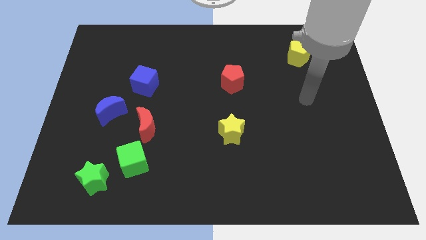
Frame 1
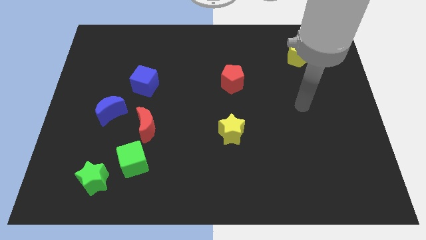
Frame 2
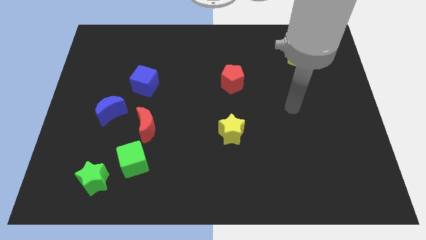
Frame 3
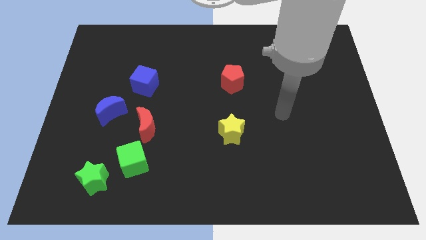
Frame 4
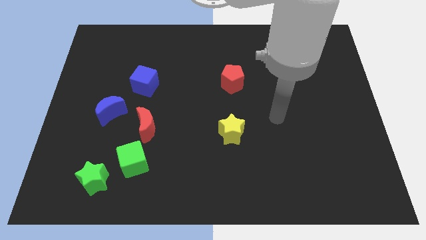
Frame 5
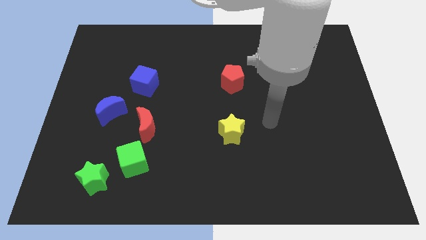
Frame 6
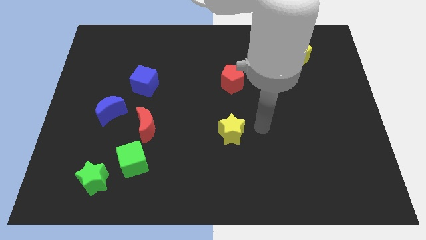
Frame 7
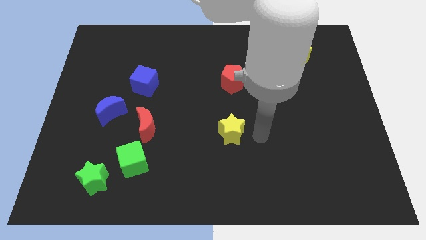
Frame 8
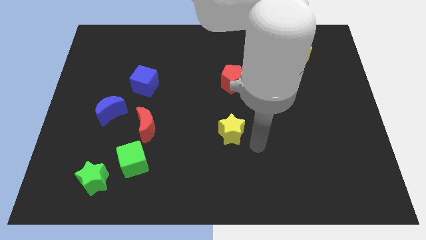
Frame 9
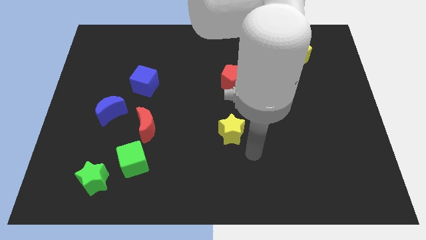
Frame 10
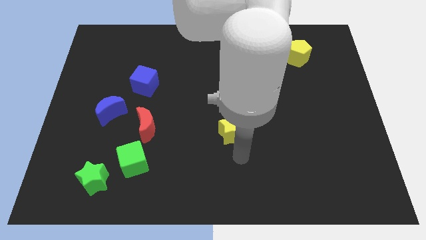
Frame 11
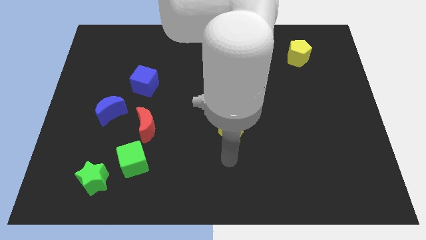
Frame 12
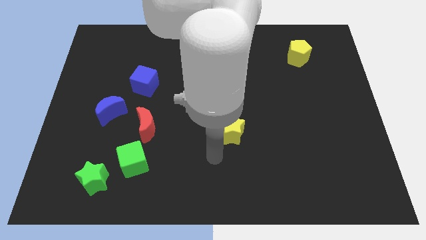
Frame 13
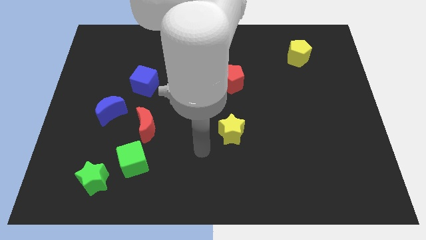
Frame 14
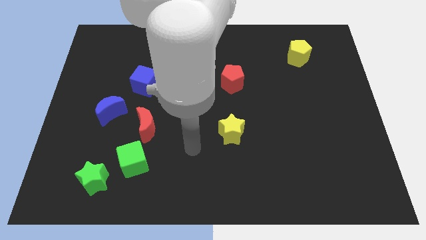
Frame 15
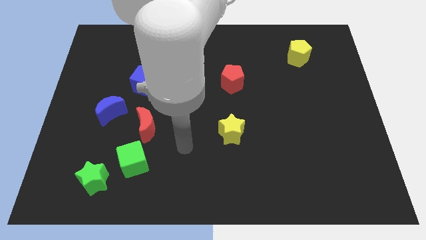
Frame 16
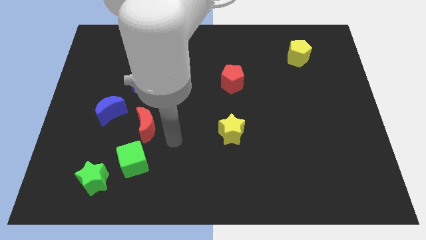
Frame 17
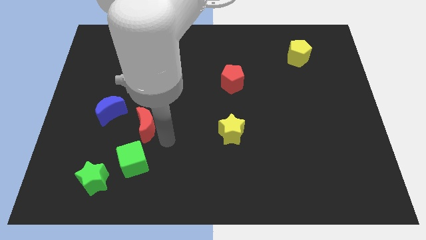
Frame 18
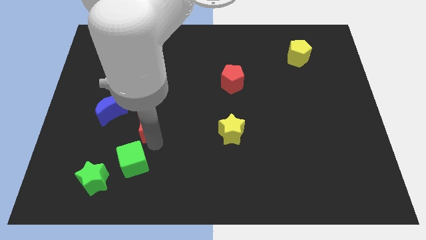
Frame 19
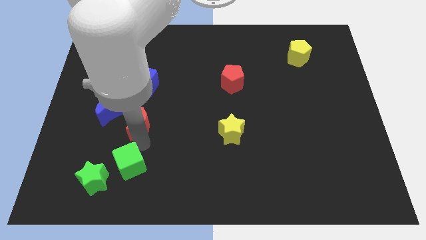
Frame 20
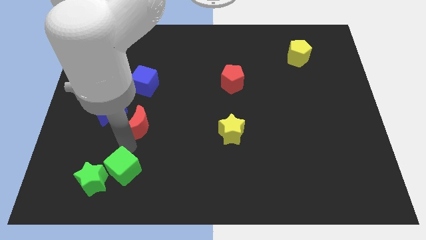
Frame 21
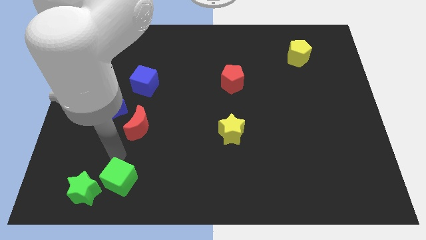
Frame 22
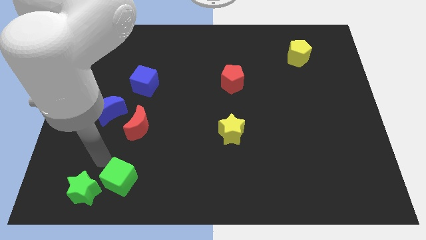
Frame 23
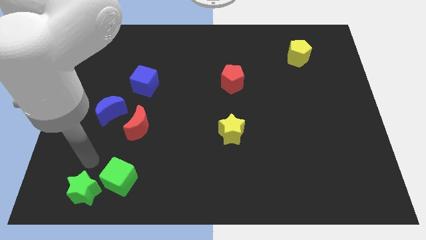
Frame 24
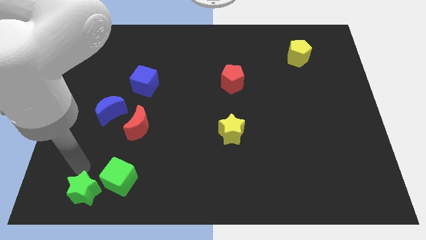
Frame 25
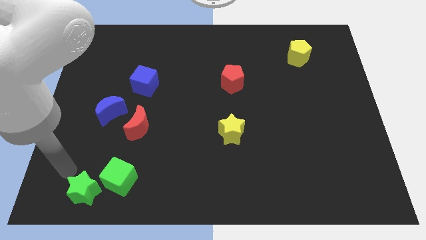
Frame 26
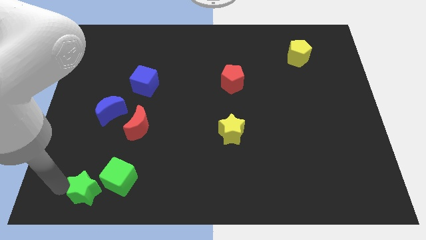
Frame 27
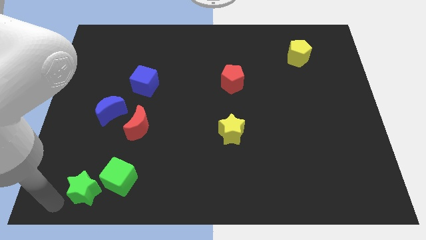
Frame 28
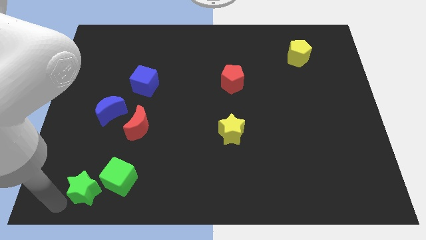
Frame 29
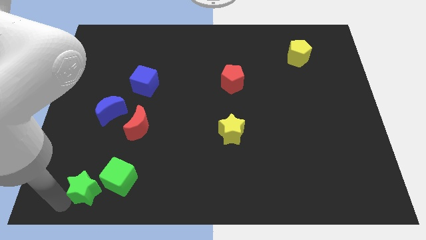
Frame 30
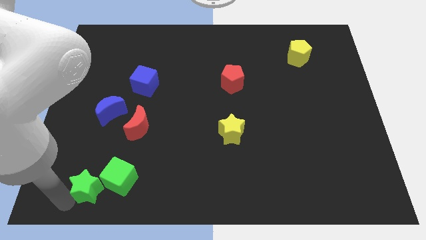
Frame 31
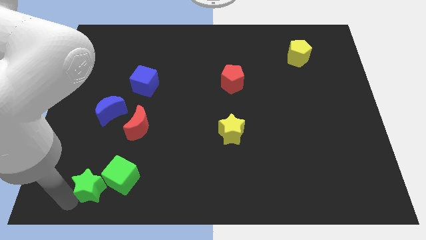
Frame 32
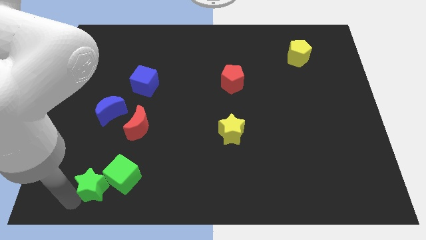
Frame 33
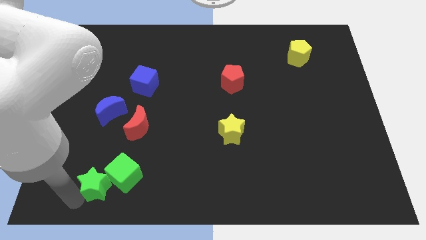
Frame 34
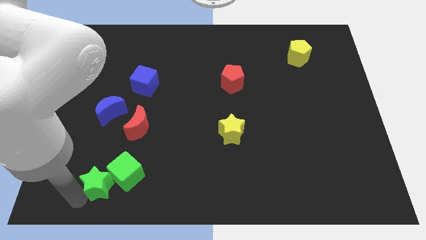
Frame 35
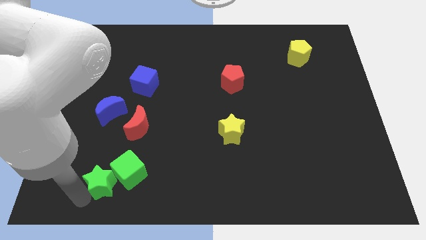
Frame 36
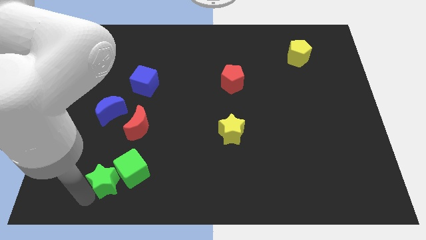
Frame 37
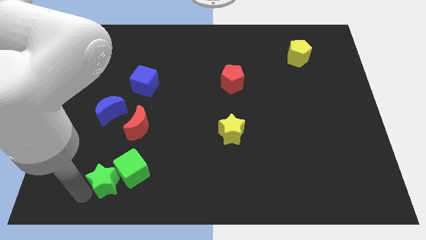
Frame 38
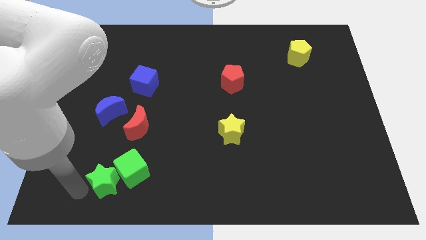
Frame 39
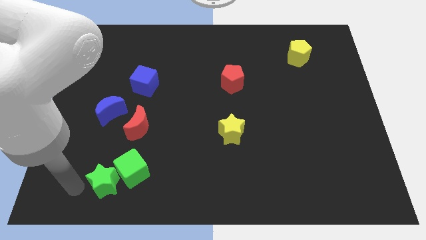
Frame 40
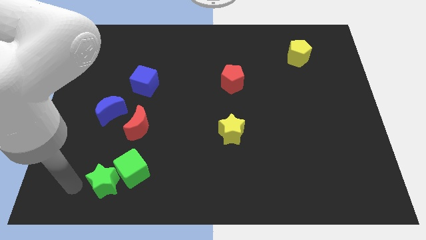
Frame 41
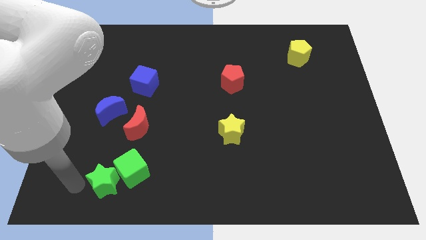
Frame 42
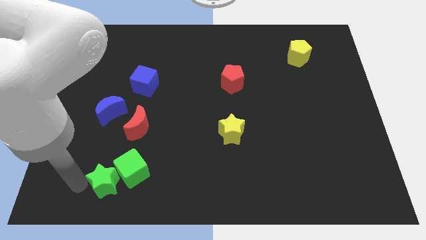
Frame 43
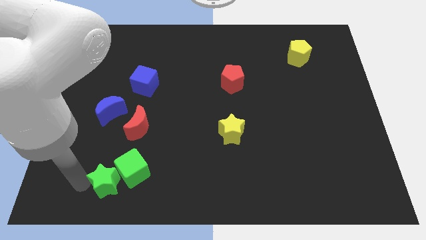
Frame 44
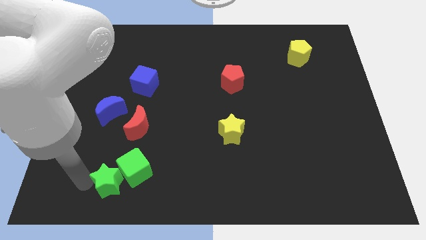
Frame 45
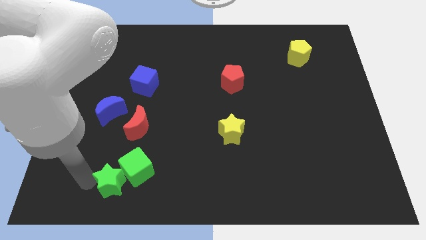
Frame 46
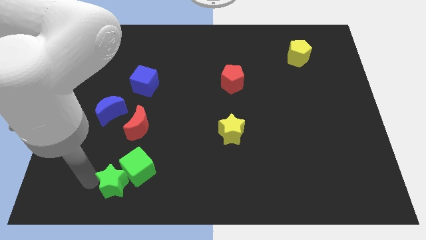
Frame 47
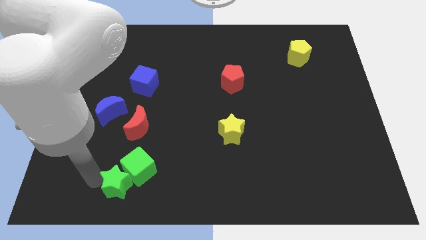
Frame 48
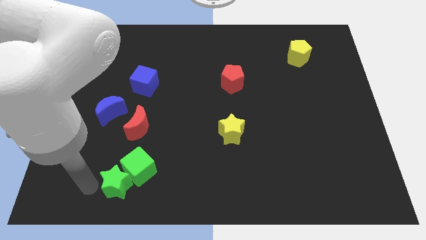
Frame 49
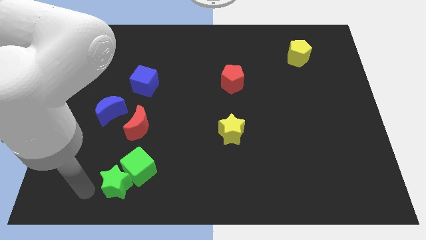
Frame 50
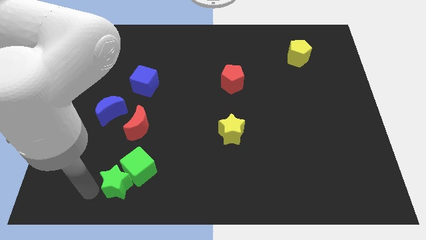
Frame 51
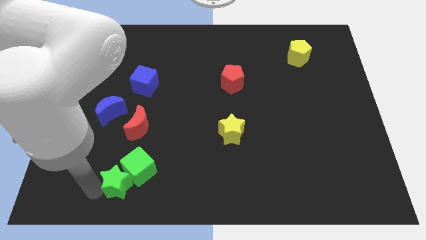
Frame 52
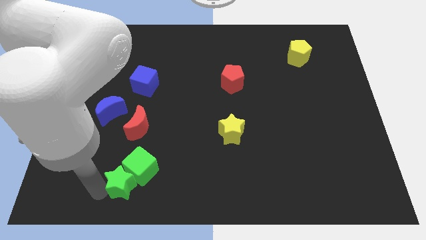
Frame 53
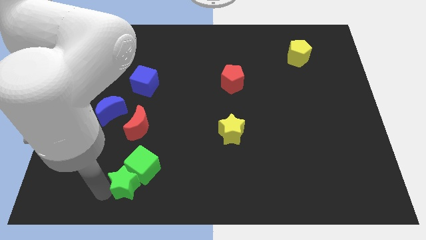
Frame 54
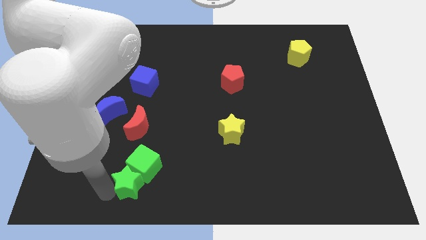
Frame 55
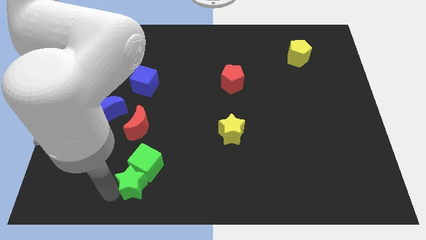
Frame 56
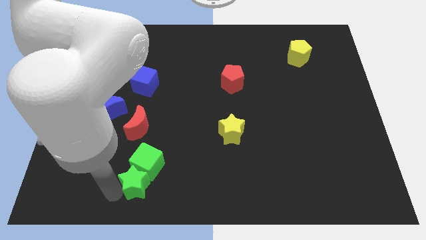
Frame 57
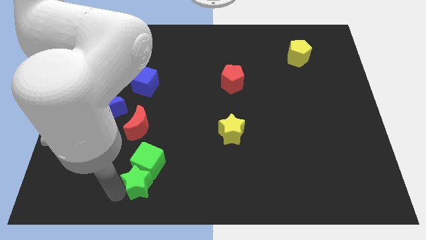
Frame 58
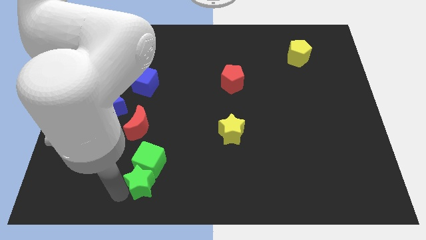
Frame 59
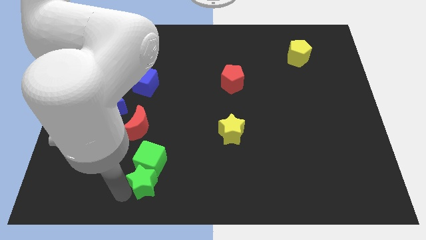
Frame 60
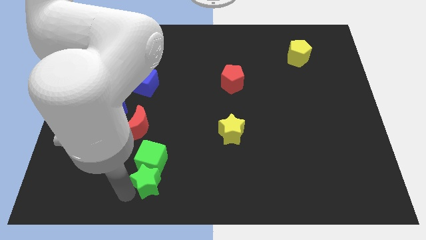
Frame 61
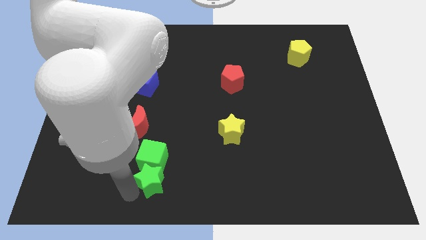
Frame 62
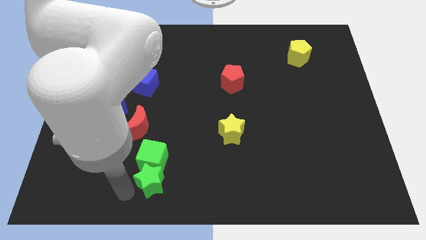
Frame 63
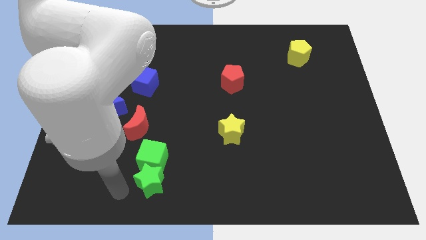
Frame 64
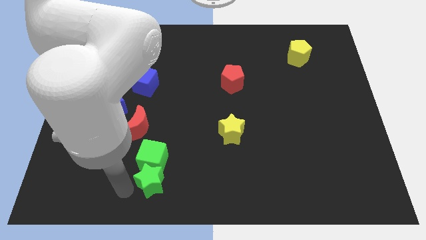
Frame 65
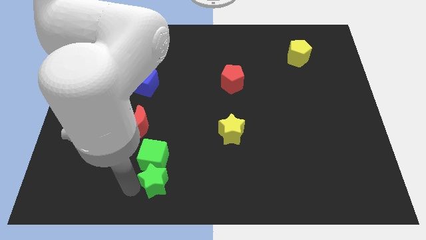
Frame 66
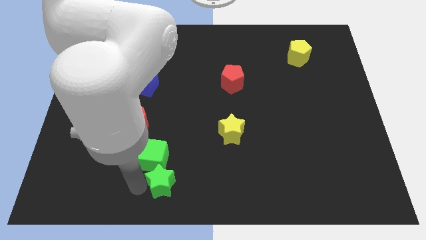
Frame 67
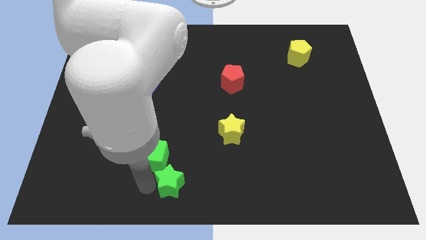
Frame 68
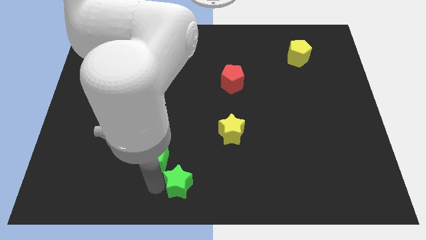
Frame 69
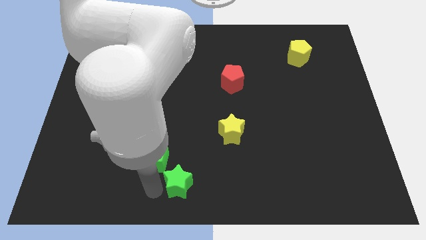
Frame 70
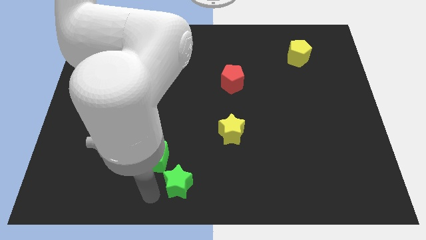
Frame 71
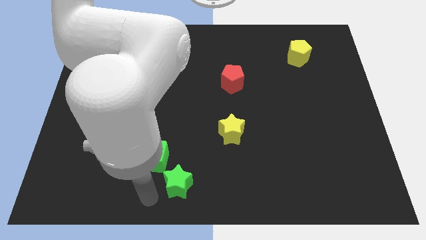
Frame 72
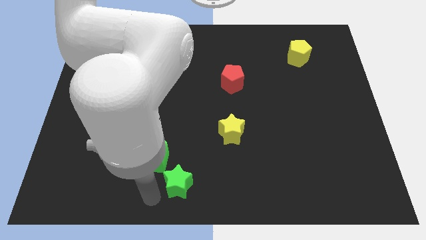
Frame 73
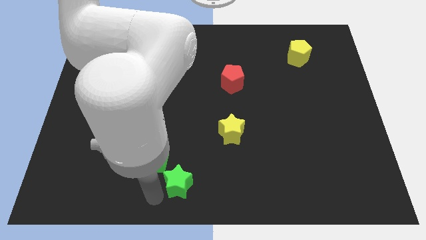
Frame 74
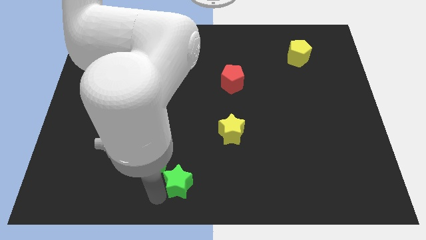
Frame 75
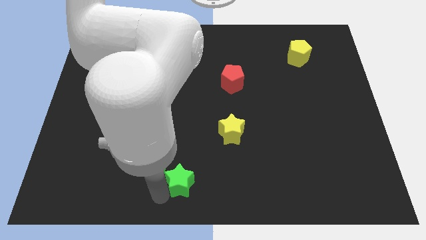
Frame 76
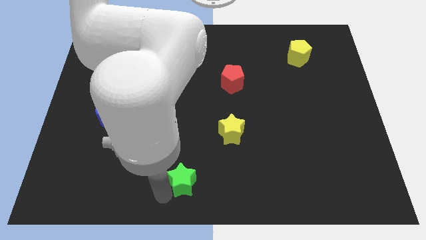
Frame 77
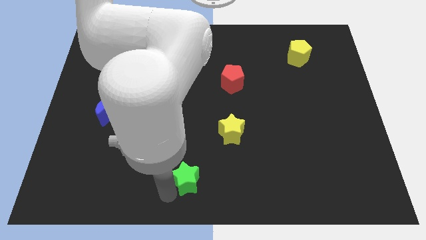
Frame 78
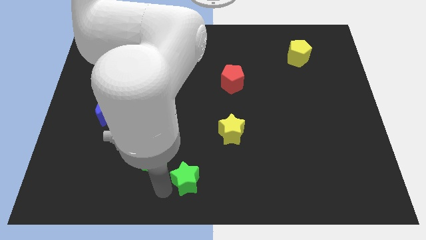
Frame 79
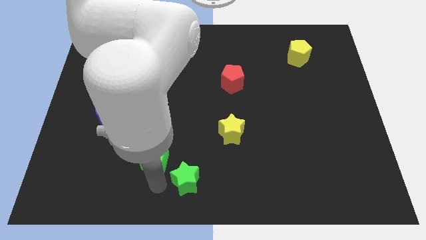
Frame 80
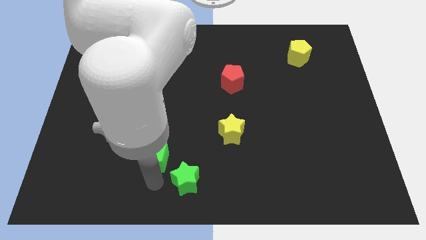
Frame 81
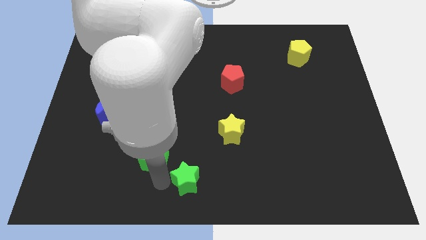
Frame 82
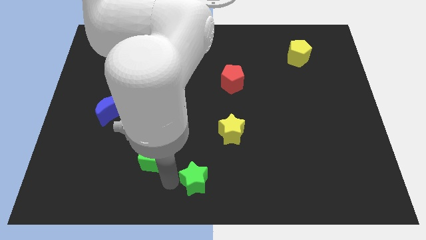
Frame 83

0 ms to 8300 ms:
push the green star right
